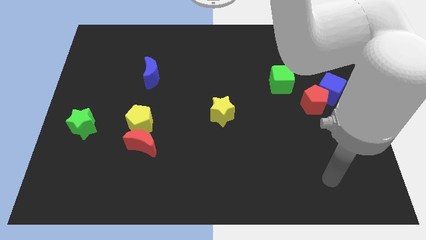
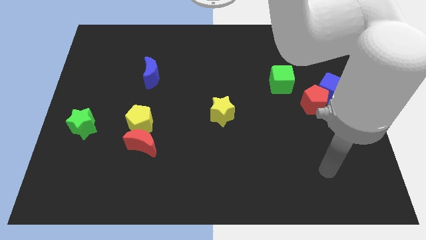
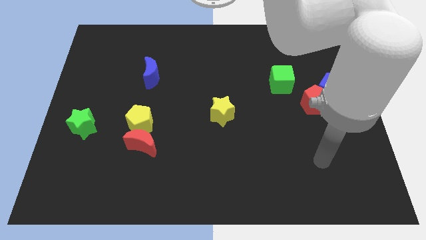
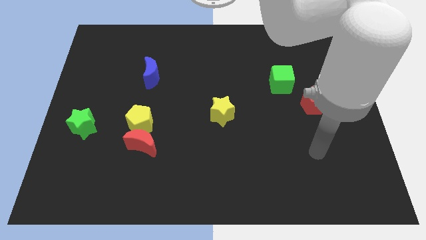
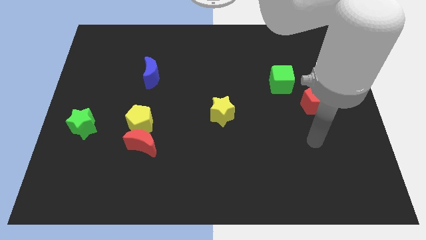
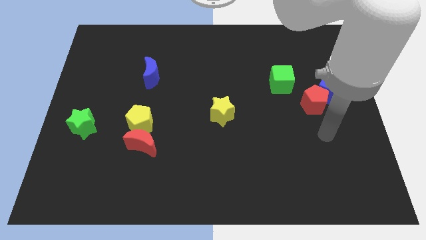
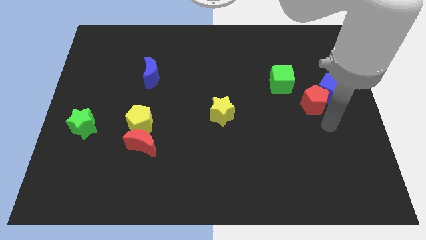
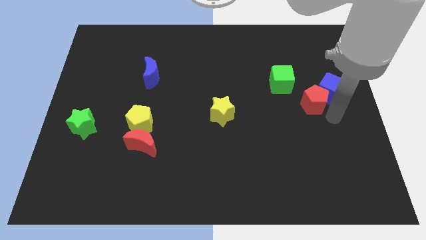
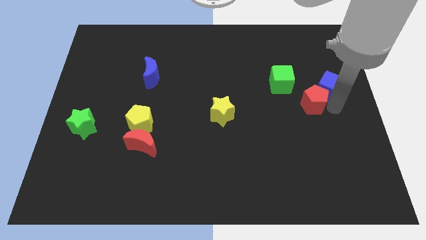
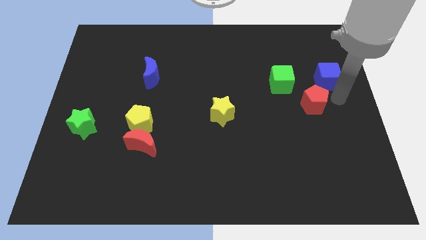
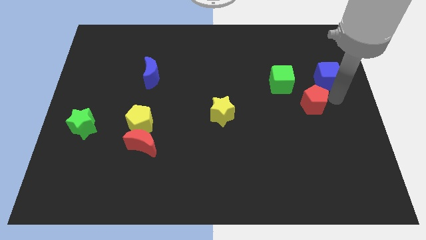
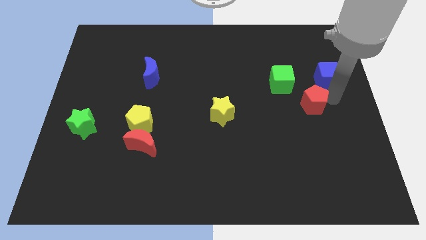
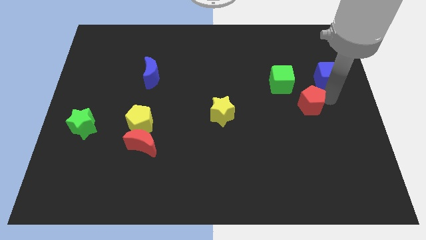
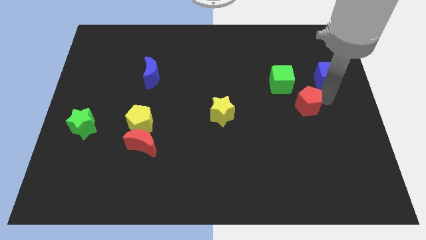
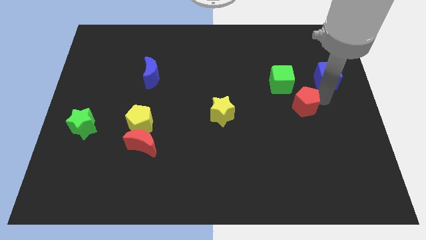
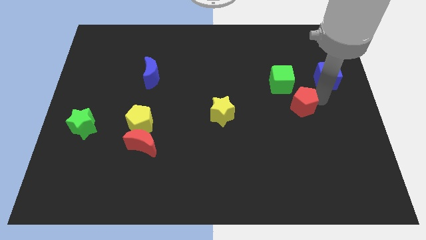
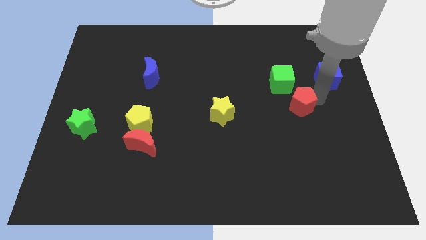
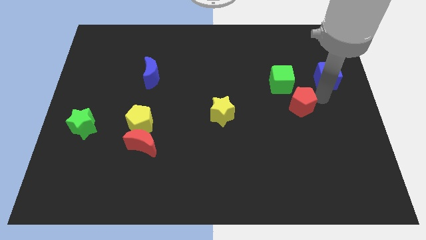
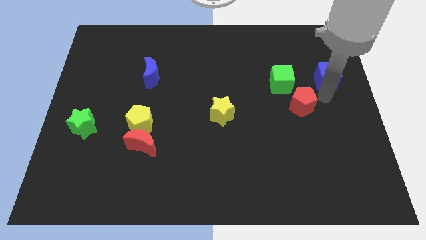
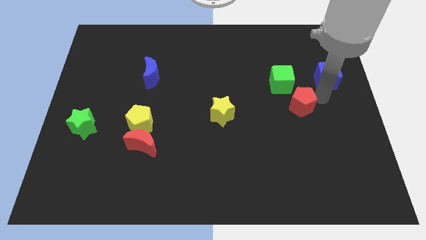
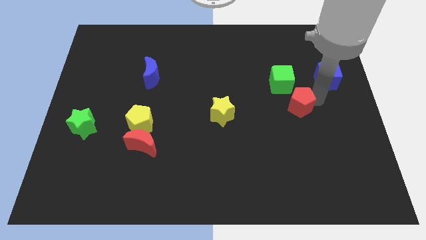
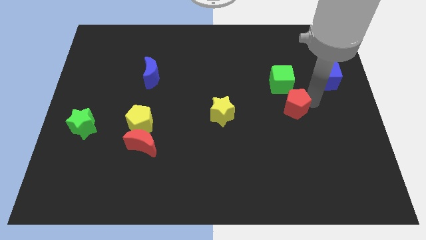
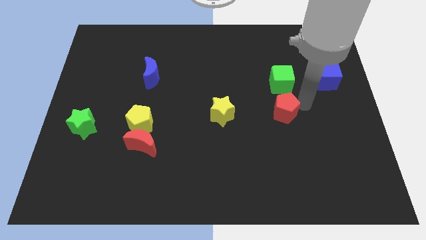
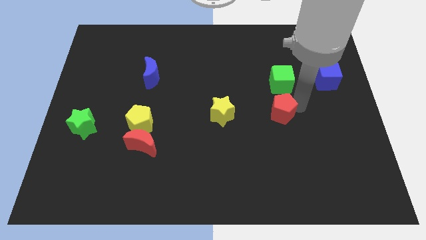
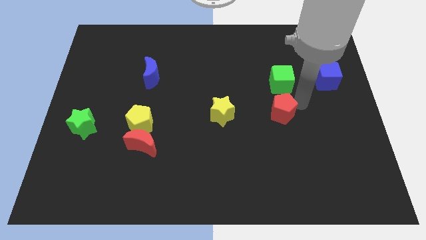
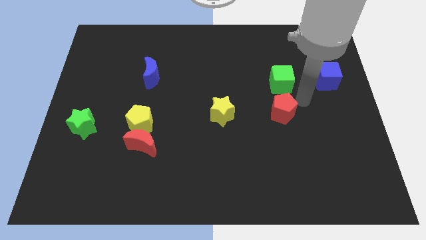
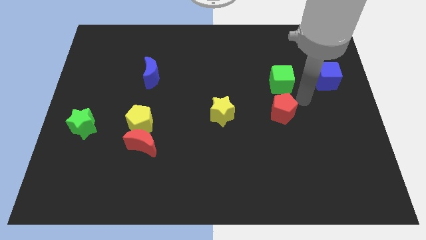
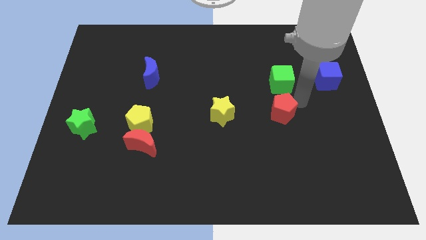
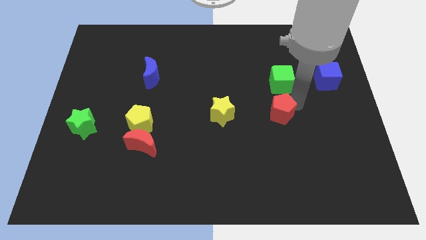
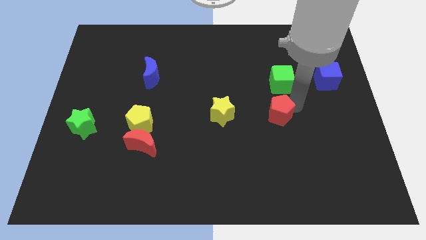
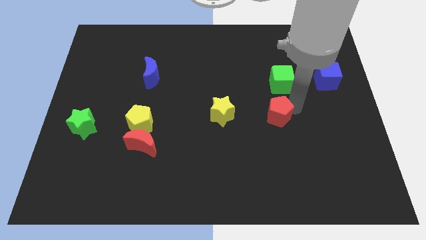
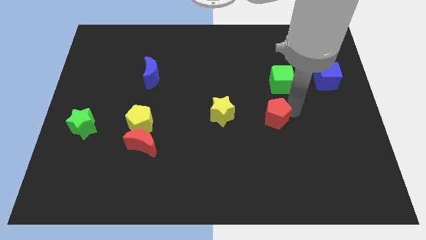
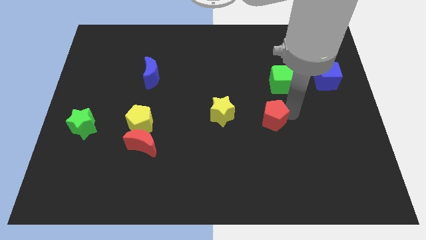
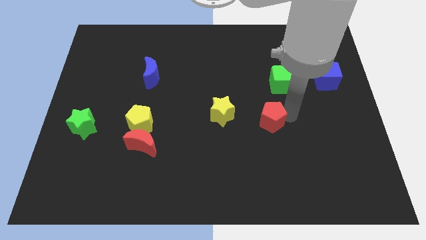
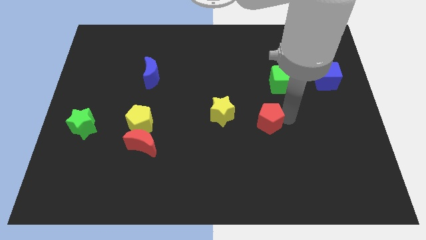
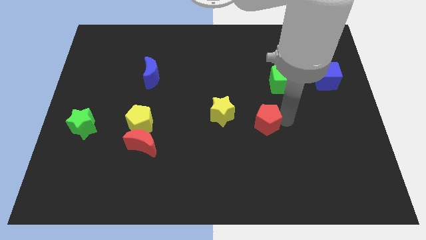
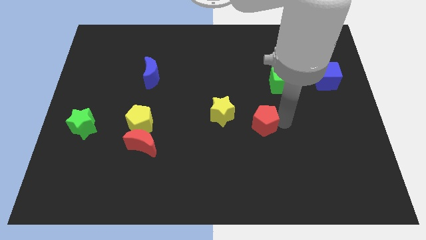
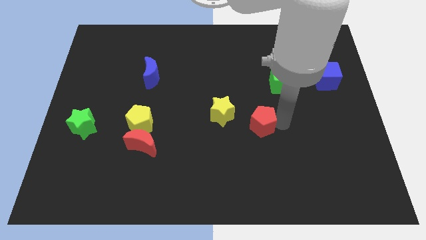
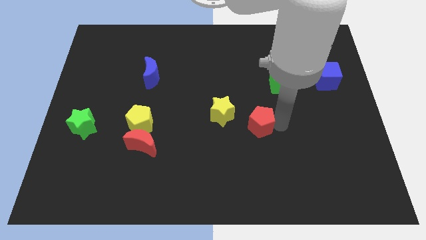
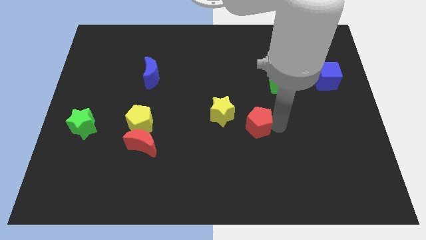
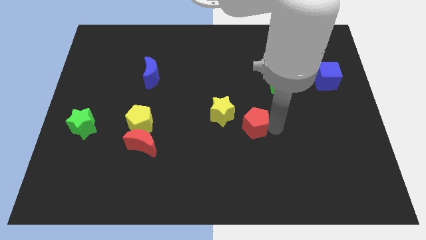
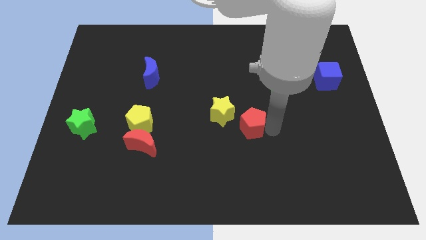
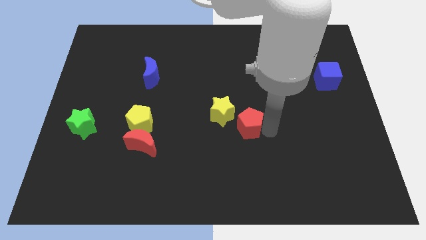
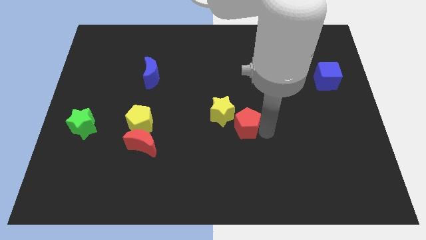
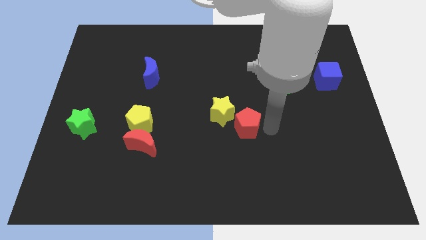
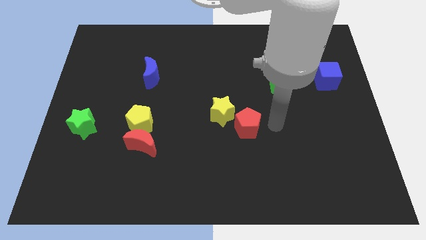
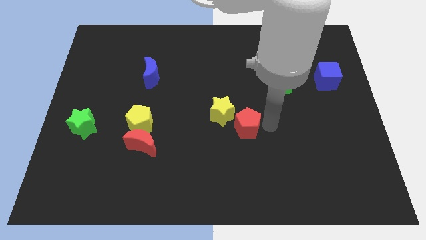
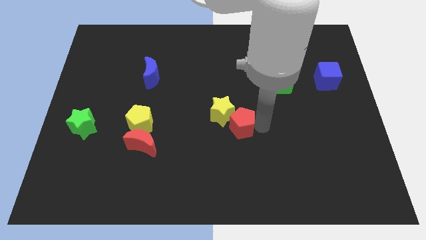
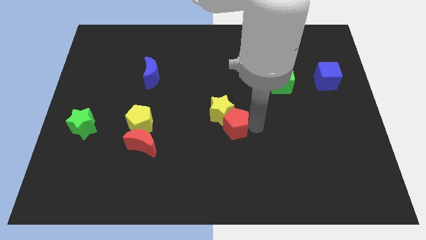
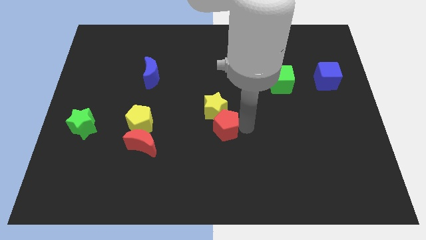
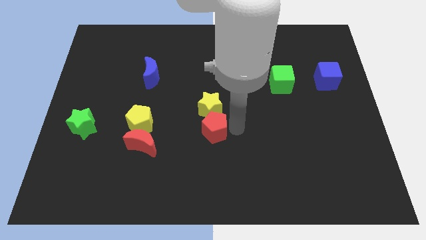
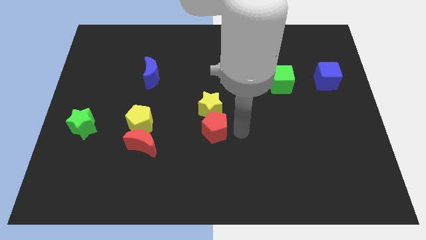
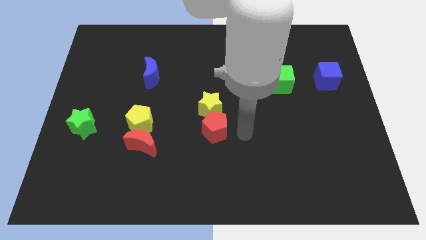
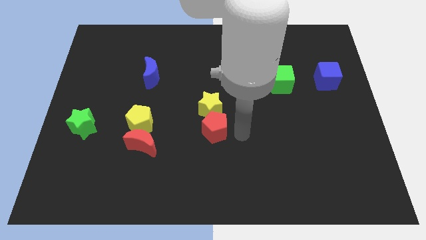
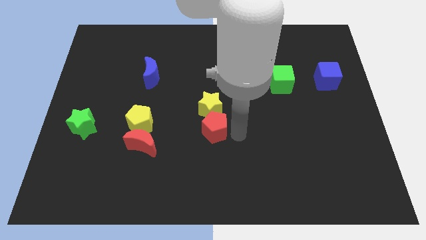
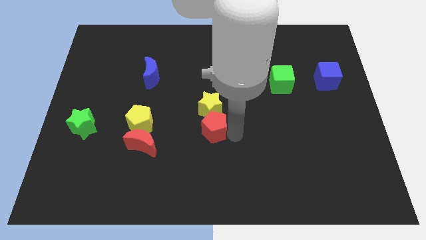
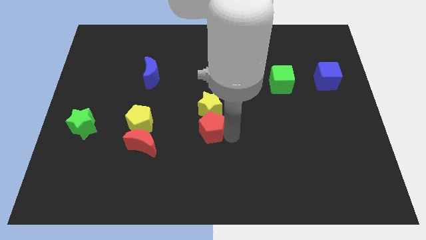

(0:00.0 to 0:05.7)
slide the red pentagon diagonally down and to the left of the yellow star

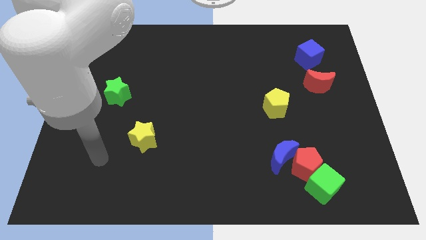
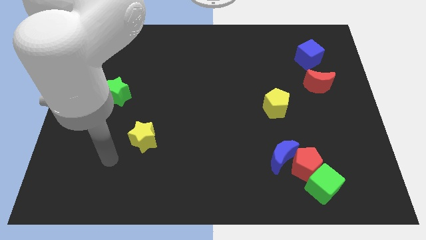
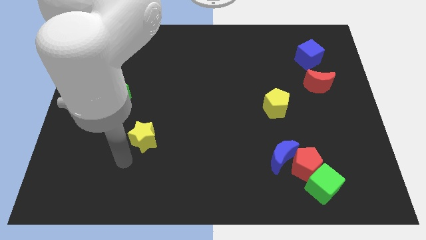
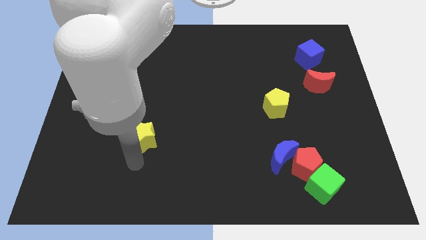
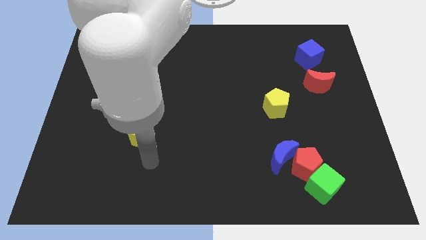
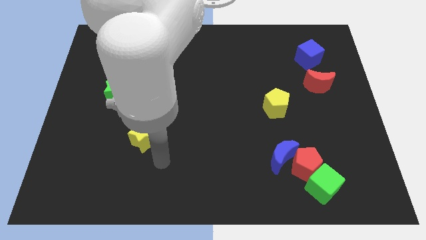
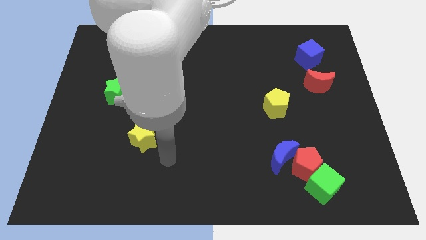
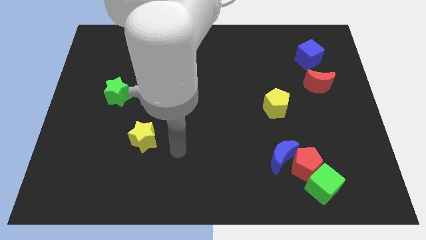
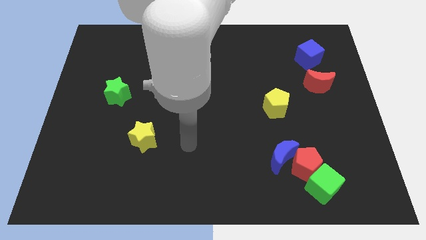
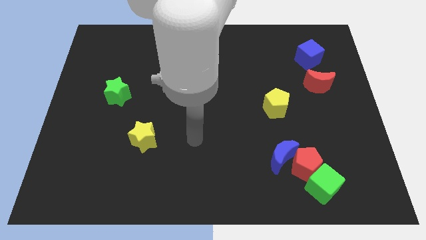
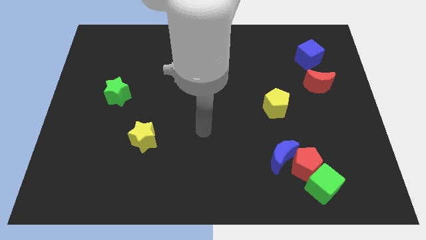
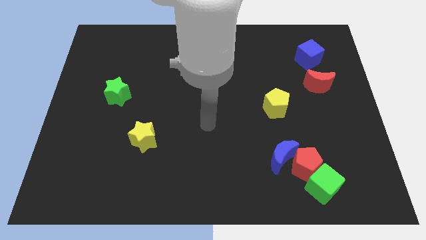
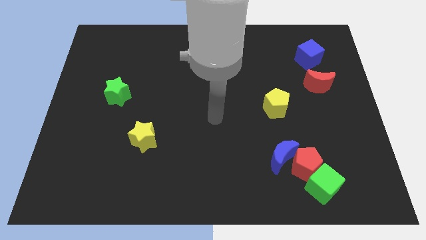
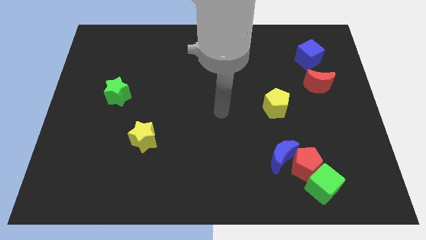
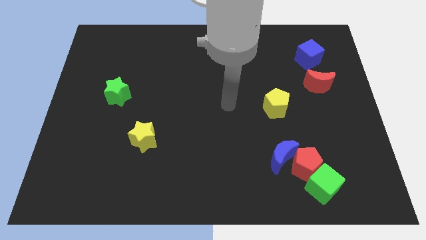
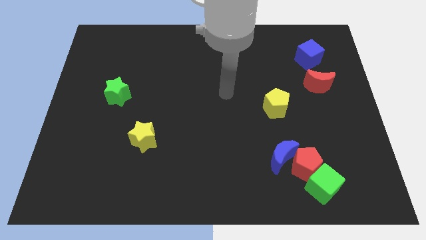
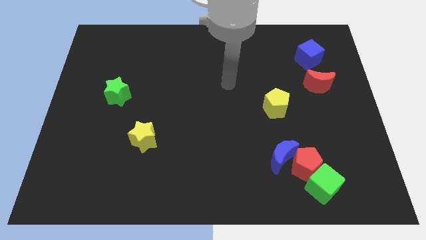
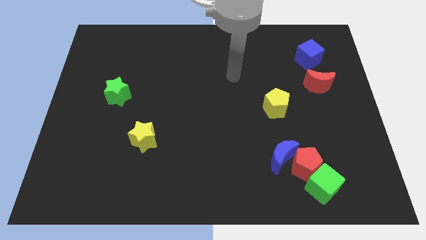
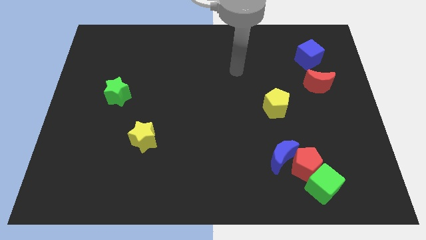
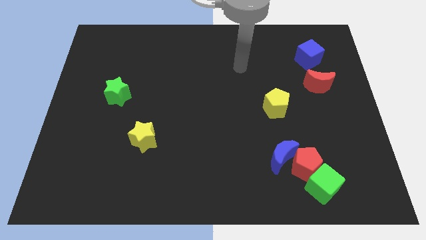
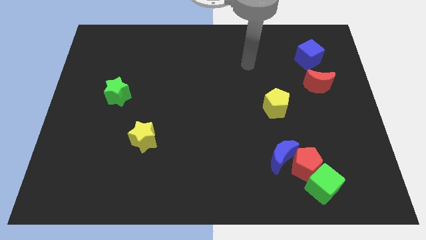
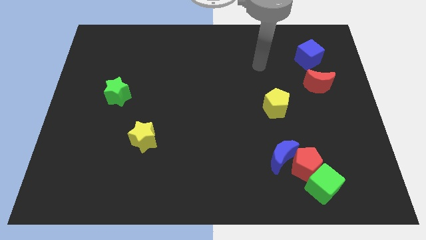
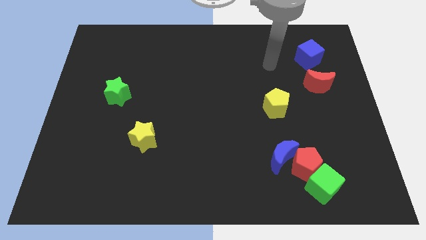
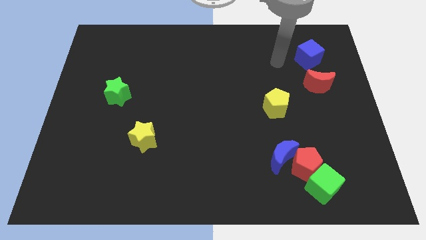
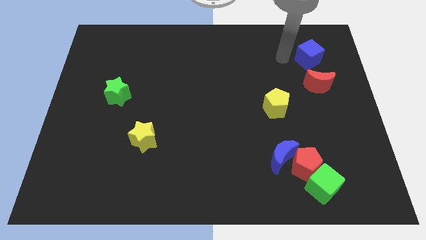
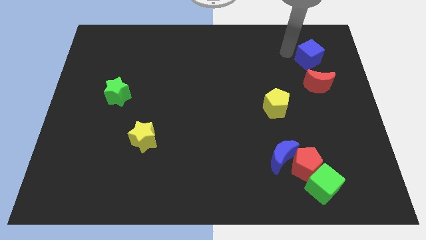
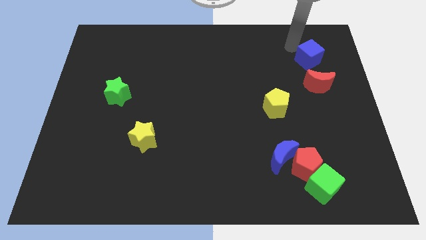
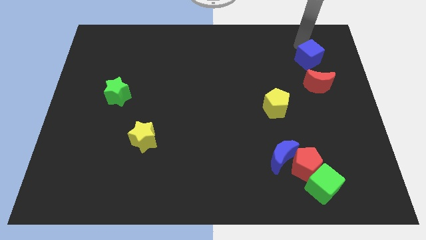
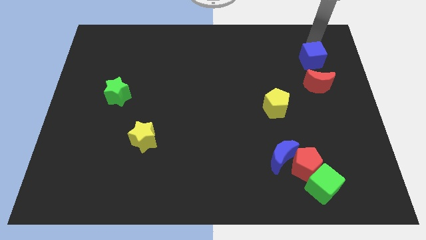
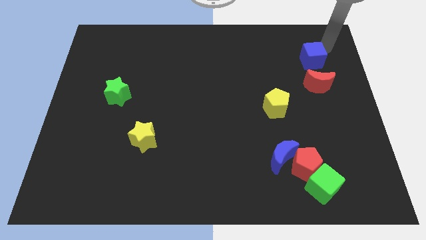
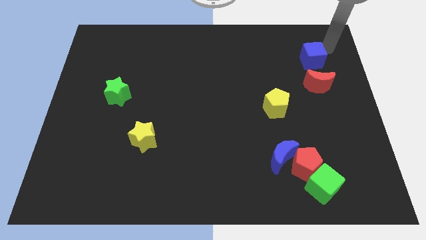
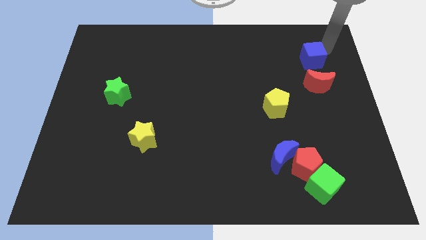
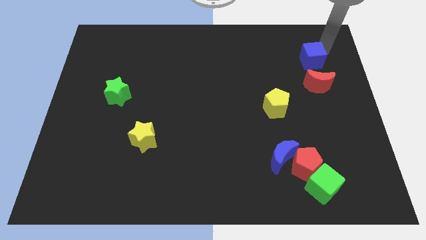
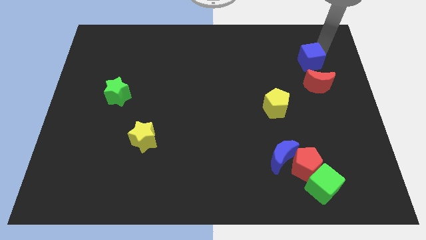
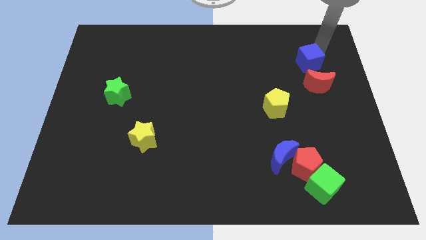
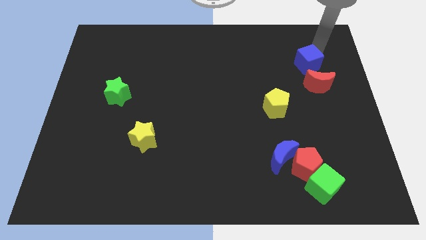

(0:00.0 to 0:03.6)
move the blue cube to the top left of the red moon
